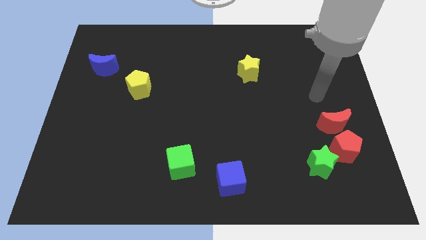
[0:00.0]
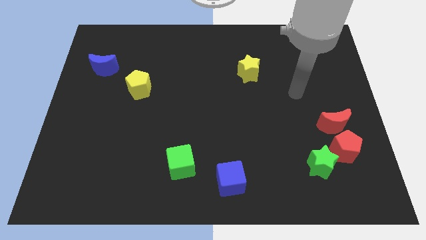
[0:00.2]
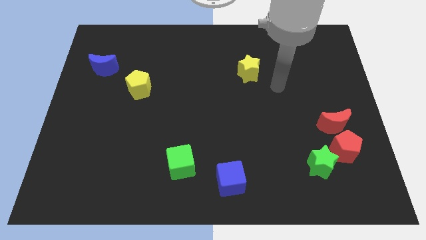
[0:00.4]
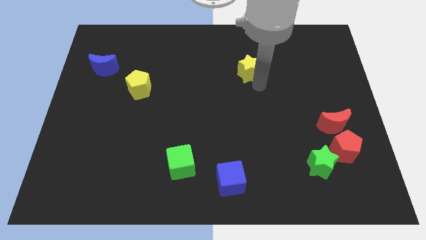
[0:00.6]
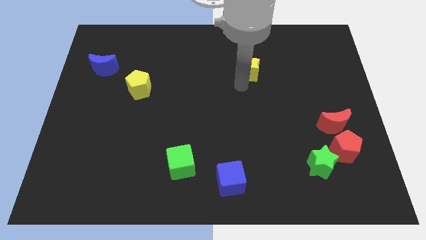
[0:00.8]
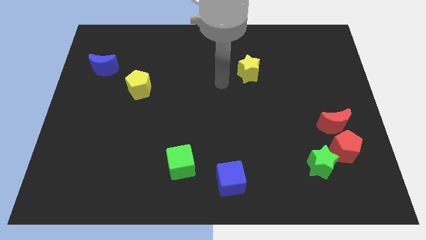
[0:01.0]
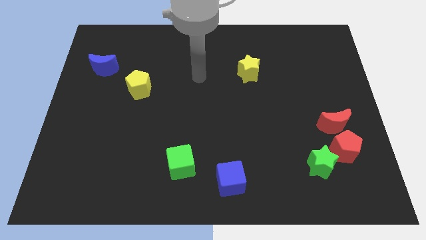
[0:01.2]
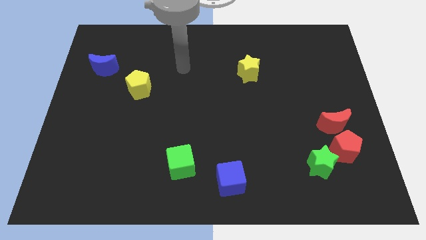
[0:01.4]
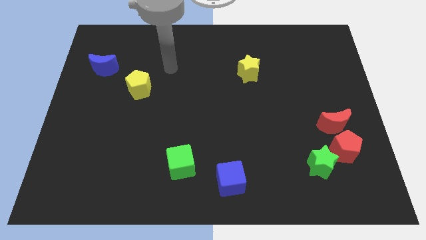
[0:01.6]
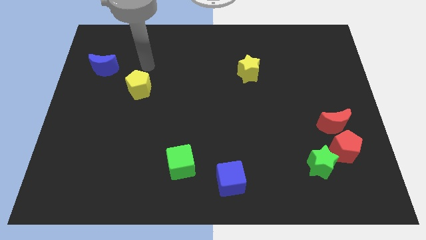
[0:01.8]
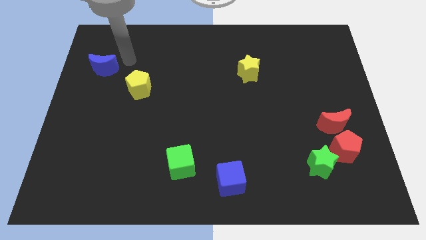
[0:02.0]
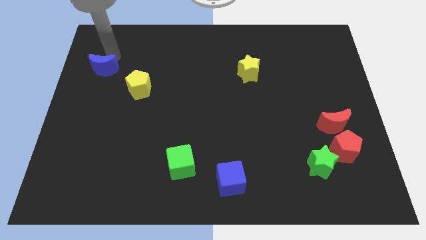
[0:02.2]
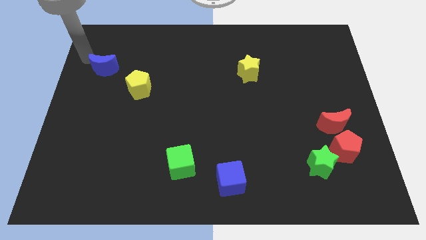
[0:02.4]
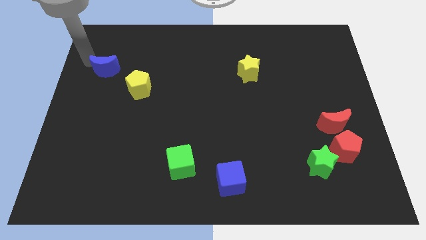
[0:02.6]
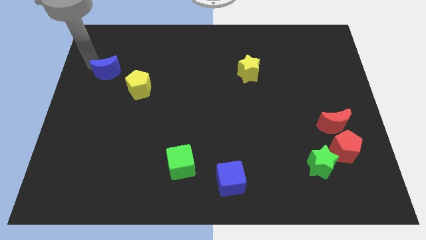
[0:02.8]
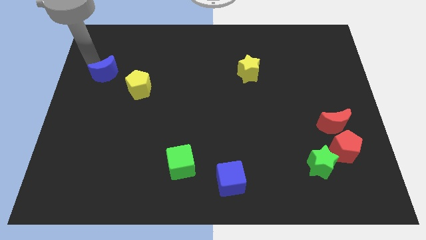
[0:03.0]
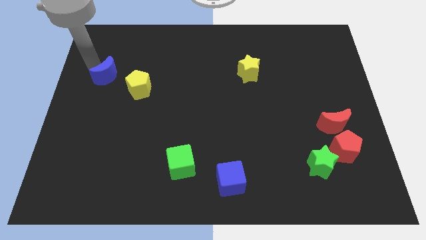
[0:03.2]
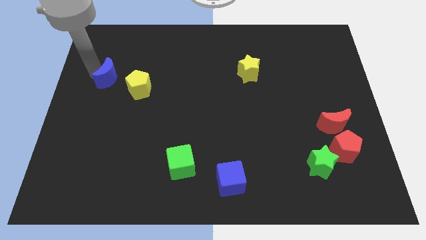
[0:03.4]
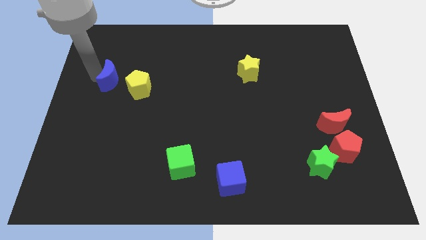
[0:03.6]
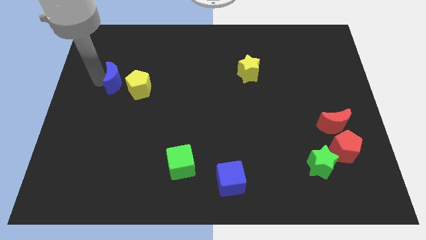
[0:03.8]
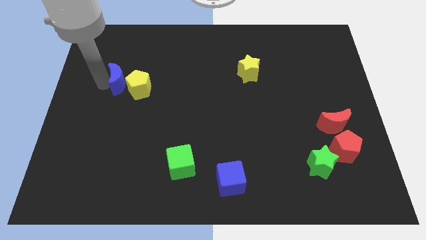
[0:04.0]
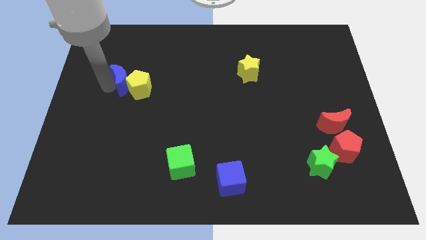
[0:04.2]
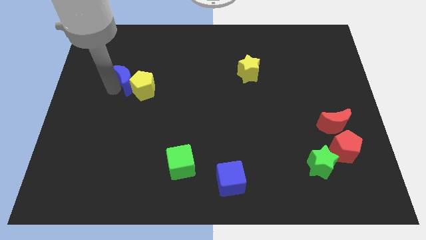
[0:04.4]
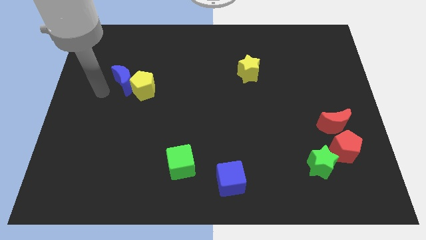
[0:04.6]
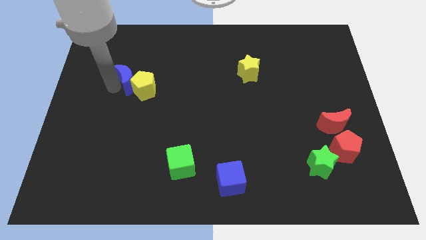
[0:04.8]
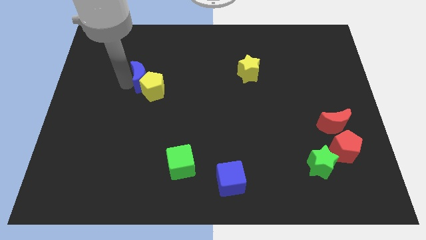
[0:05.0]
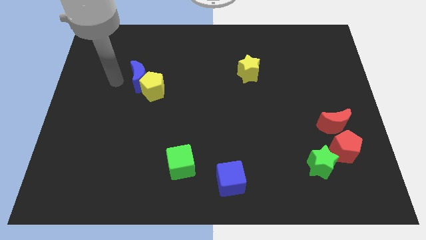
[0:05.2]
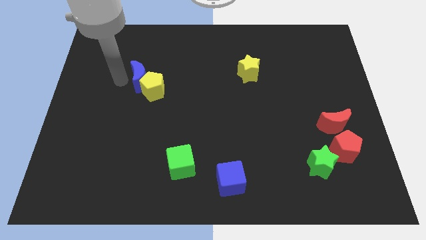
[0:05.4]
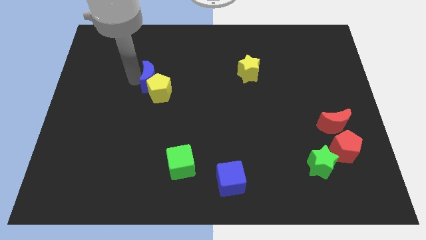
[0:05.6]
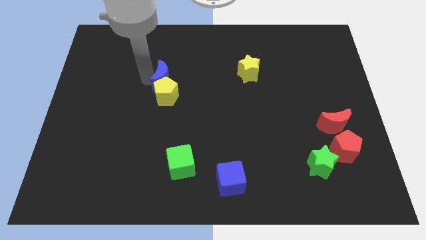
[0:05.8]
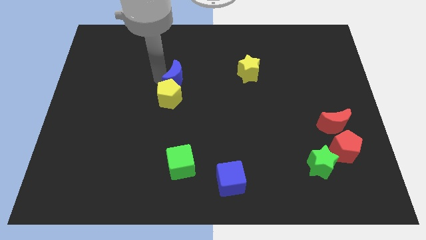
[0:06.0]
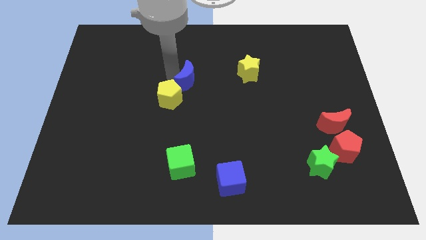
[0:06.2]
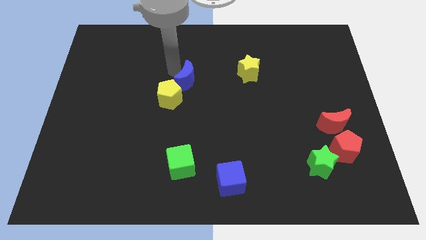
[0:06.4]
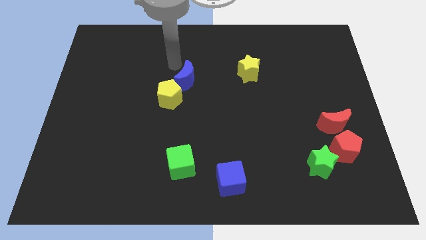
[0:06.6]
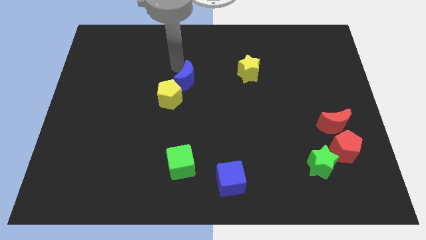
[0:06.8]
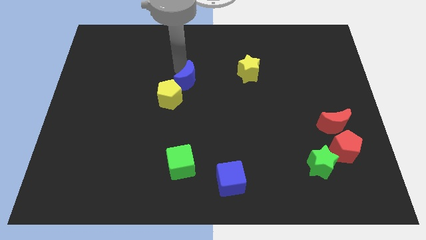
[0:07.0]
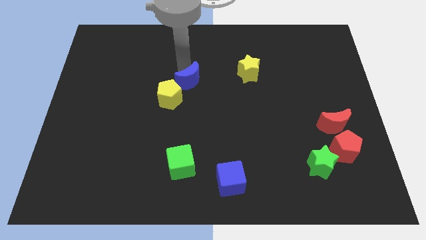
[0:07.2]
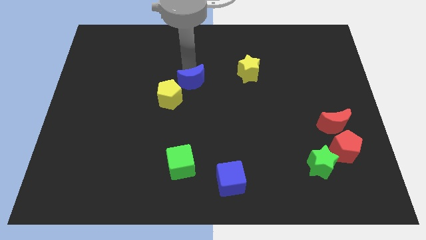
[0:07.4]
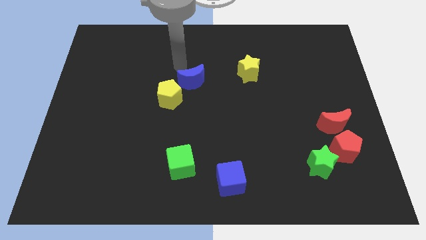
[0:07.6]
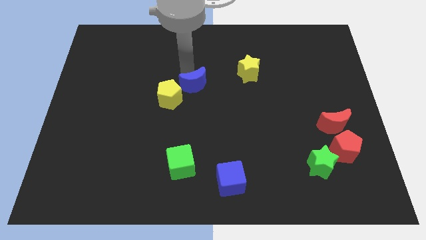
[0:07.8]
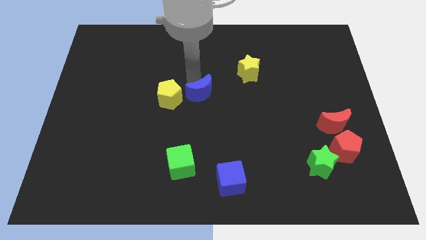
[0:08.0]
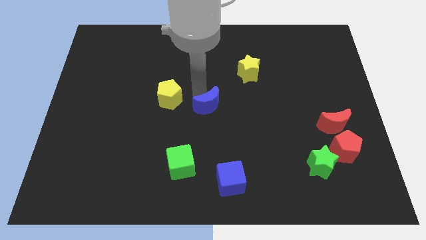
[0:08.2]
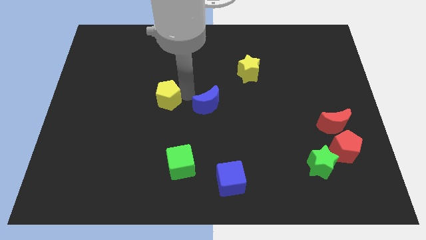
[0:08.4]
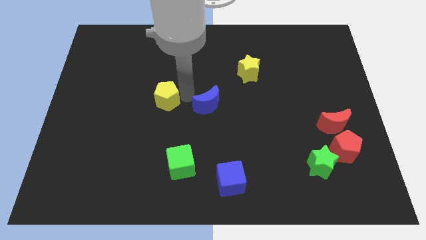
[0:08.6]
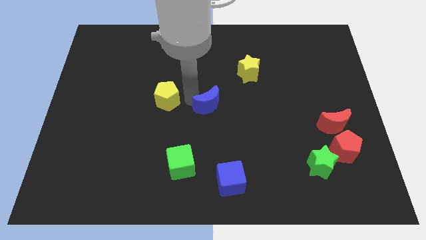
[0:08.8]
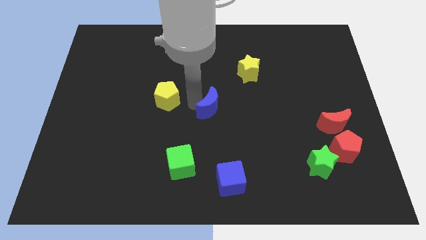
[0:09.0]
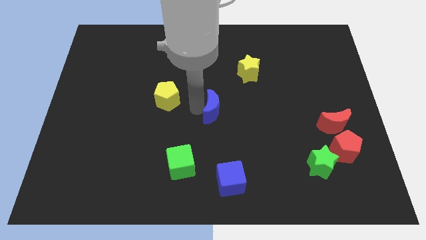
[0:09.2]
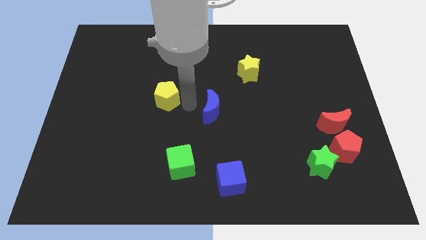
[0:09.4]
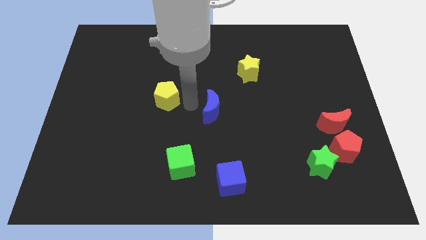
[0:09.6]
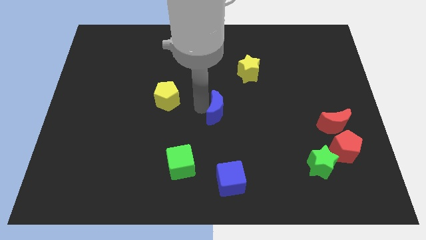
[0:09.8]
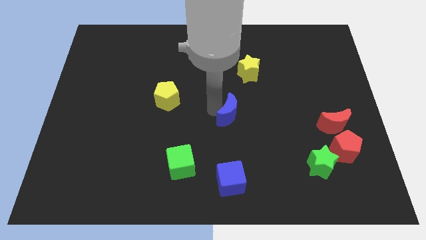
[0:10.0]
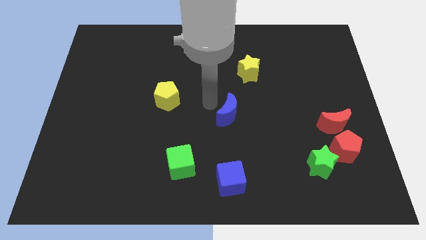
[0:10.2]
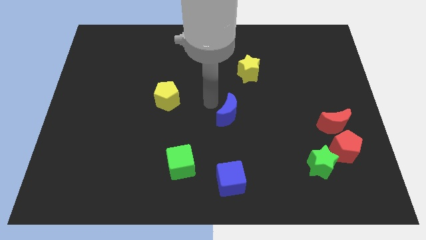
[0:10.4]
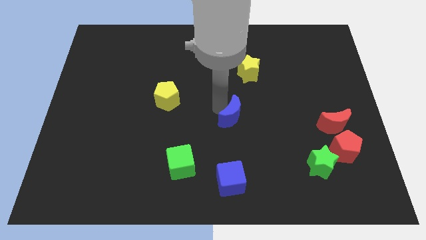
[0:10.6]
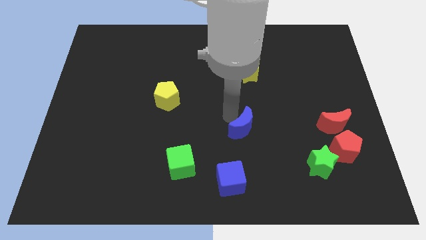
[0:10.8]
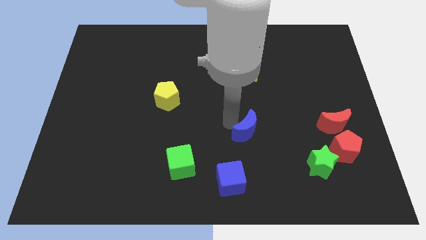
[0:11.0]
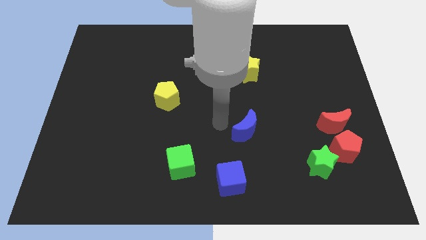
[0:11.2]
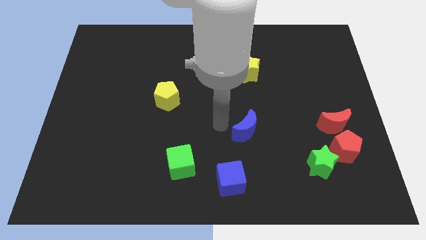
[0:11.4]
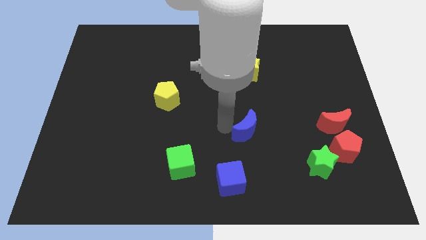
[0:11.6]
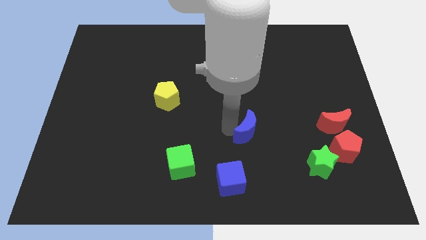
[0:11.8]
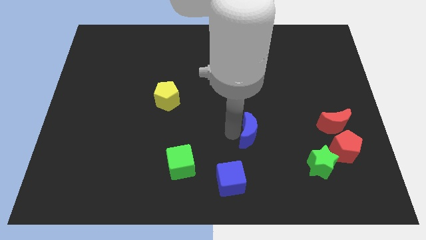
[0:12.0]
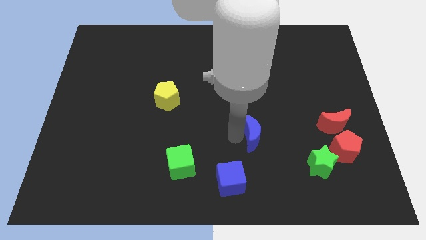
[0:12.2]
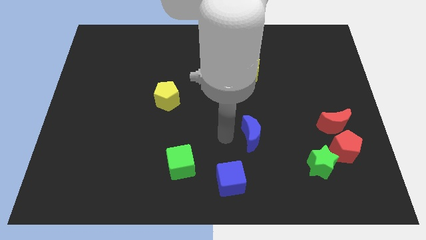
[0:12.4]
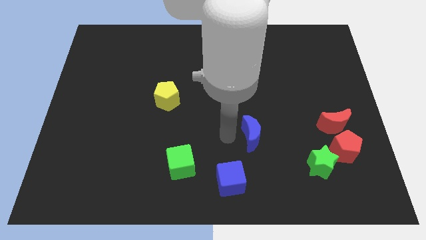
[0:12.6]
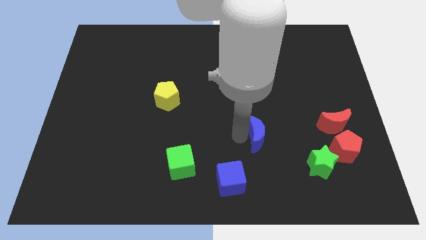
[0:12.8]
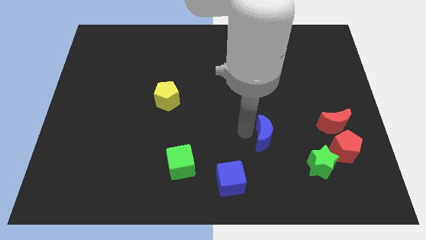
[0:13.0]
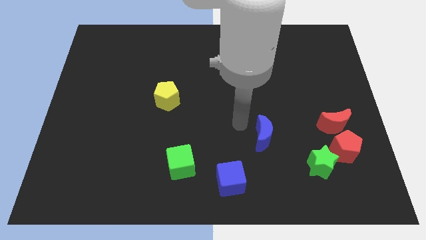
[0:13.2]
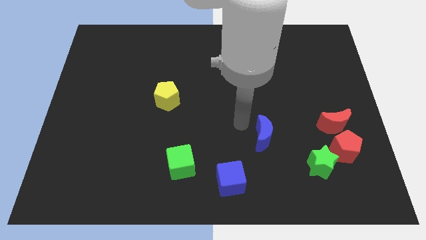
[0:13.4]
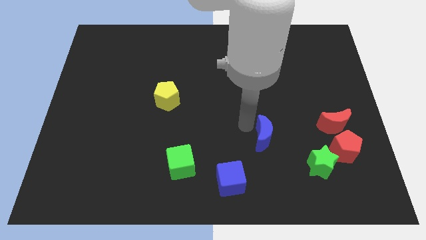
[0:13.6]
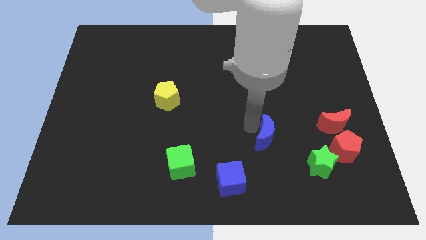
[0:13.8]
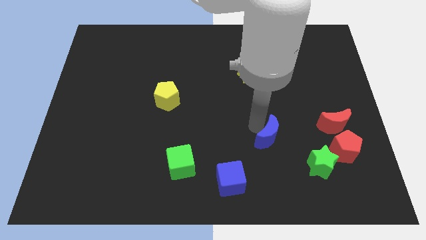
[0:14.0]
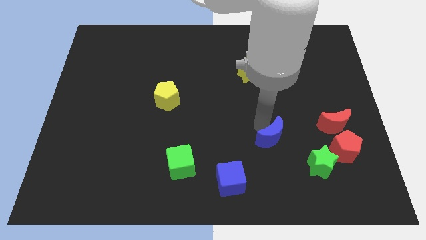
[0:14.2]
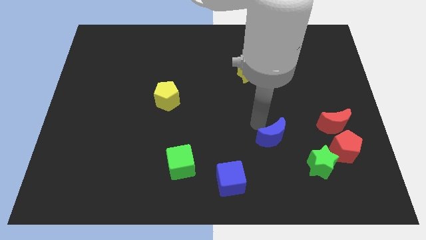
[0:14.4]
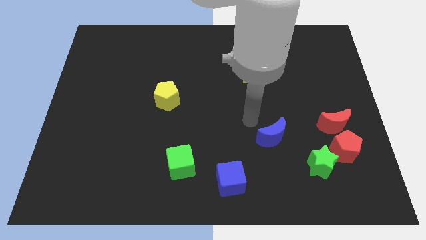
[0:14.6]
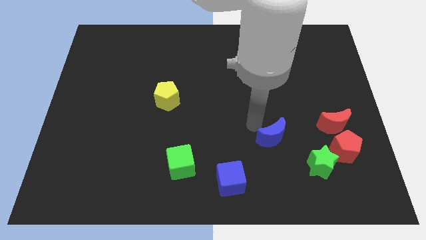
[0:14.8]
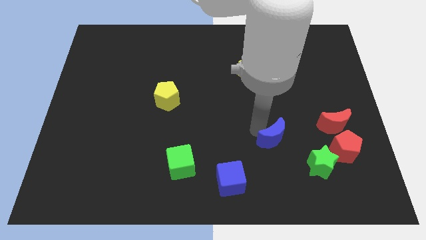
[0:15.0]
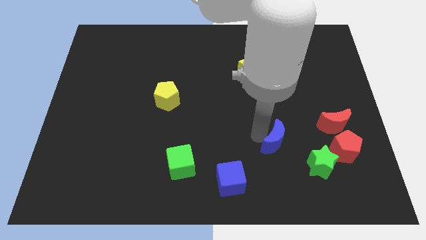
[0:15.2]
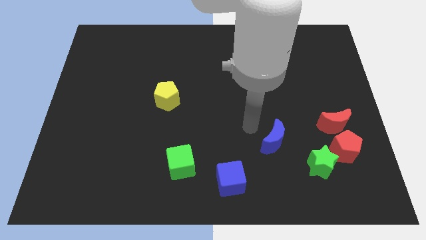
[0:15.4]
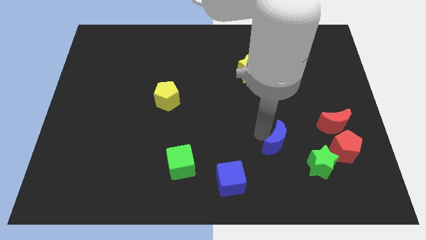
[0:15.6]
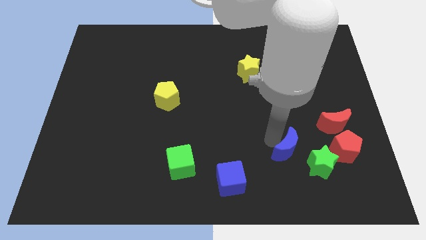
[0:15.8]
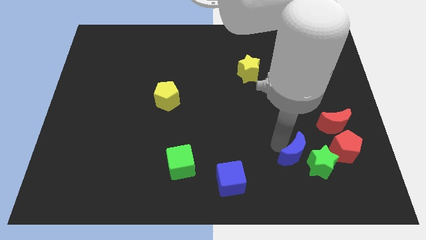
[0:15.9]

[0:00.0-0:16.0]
put the blue moon close to the green star
